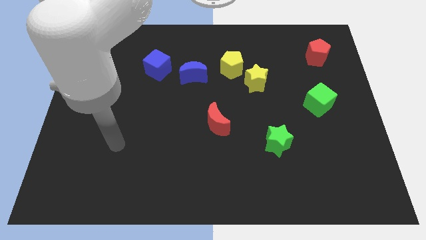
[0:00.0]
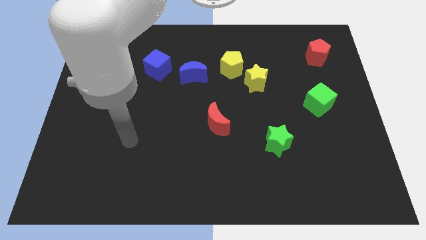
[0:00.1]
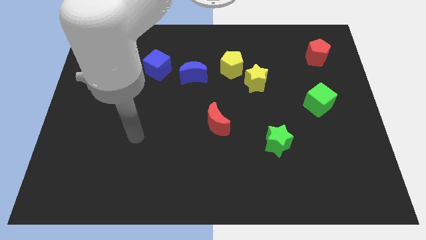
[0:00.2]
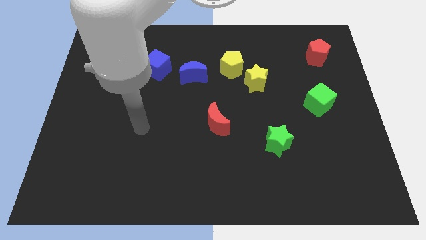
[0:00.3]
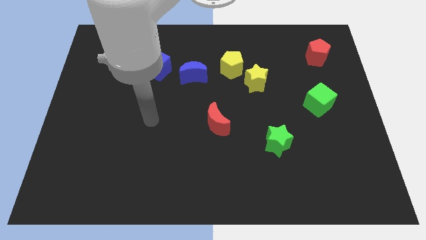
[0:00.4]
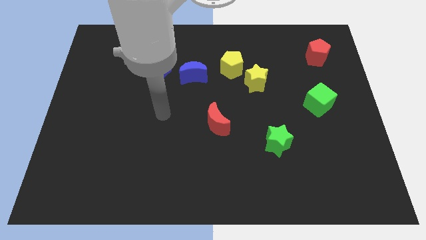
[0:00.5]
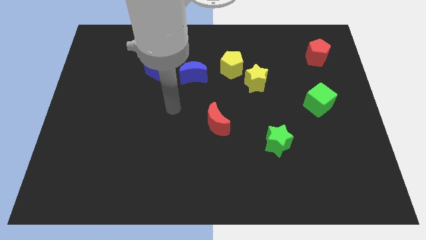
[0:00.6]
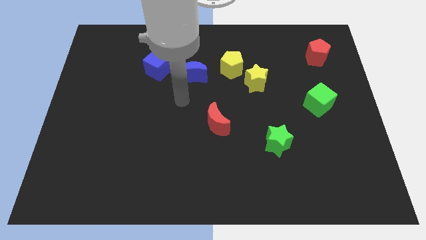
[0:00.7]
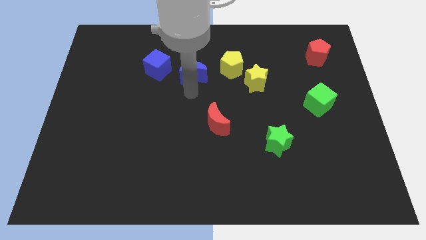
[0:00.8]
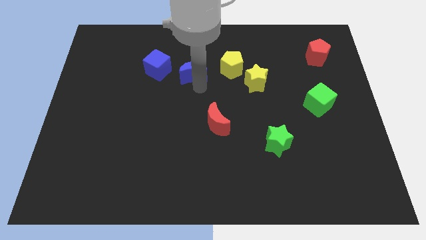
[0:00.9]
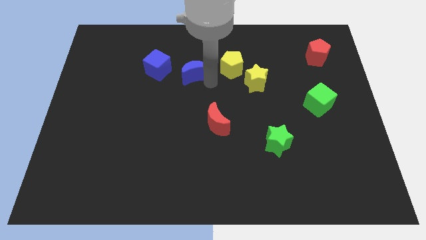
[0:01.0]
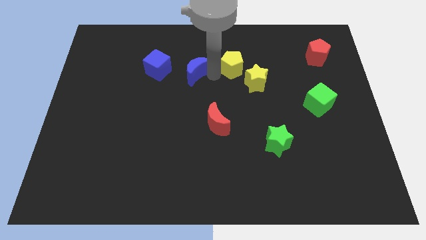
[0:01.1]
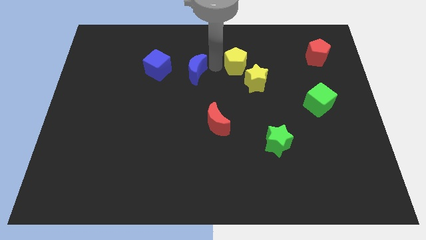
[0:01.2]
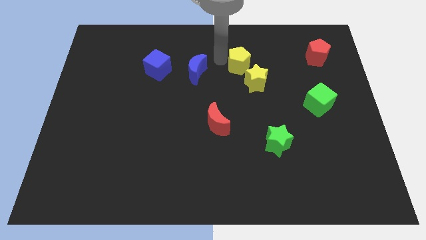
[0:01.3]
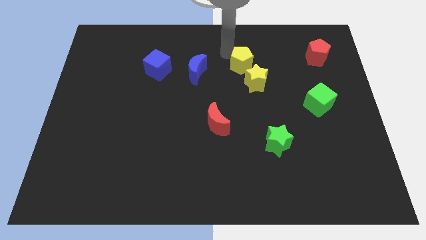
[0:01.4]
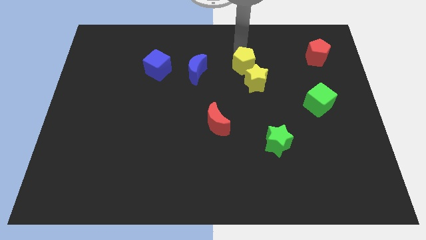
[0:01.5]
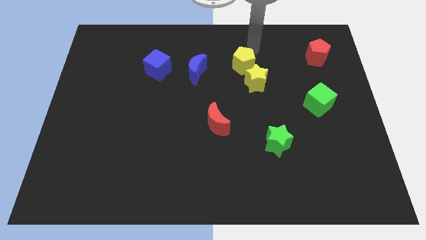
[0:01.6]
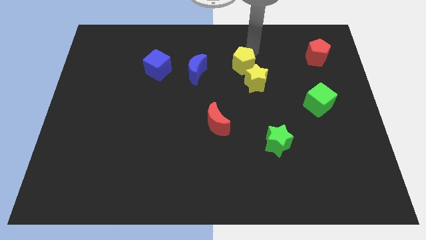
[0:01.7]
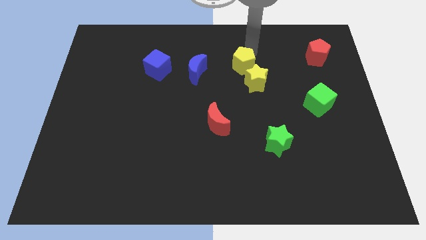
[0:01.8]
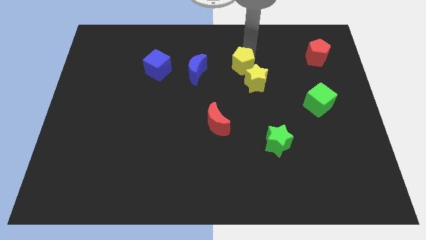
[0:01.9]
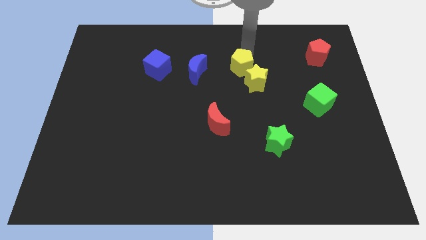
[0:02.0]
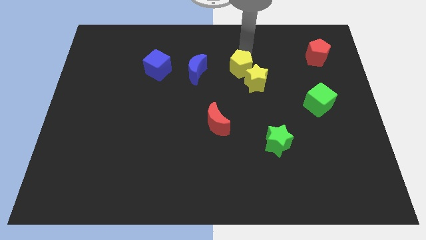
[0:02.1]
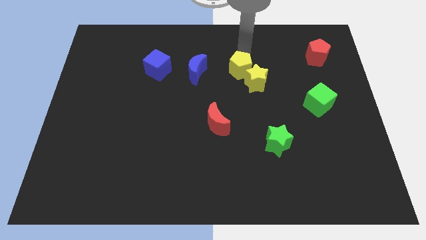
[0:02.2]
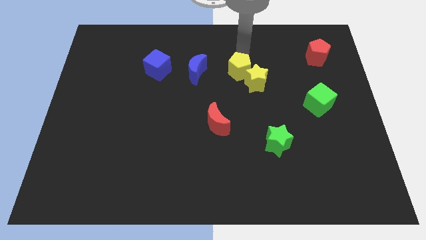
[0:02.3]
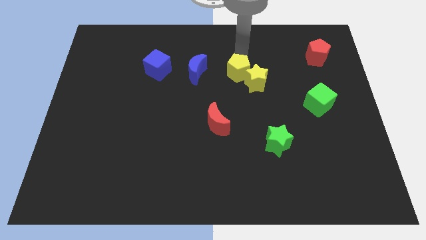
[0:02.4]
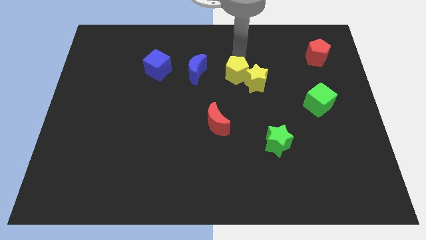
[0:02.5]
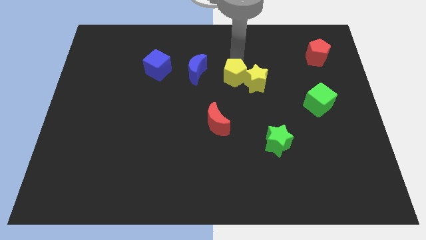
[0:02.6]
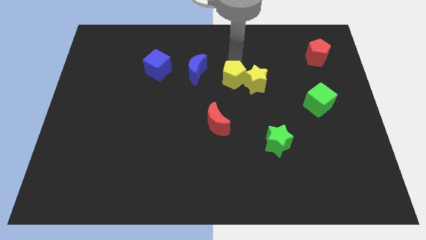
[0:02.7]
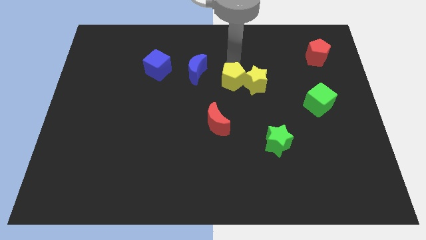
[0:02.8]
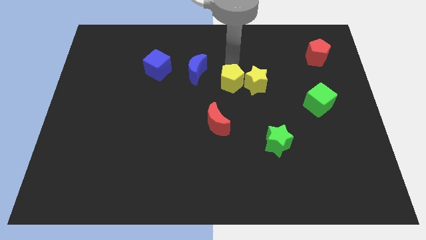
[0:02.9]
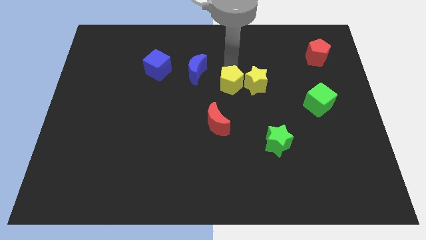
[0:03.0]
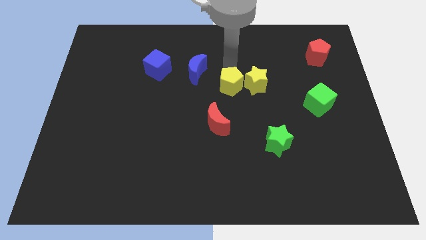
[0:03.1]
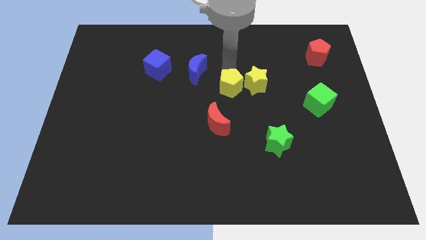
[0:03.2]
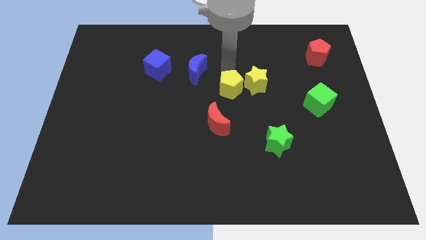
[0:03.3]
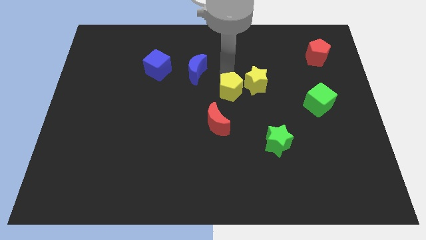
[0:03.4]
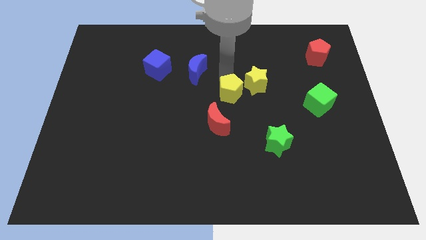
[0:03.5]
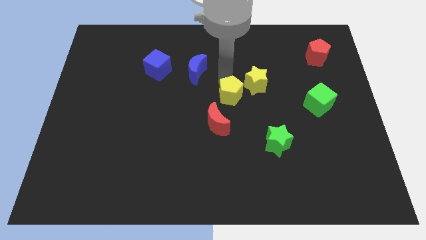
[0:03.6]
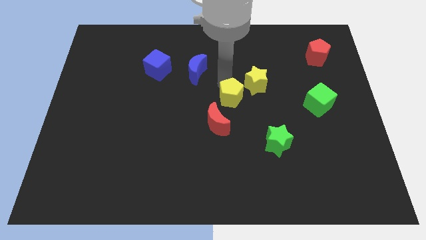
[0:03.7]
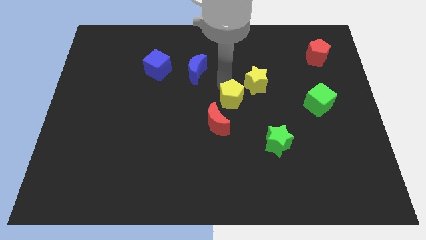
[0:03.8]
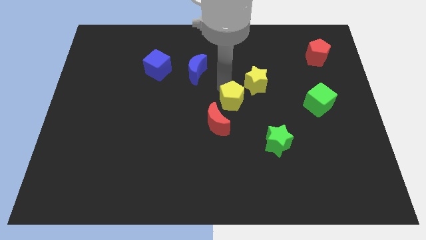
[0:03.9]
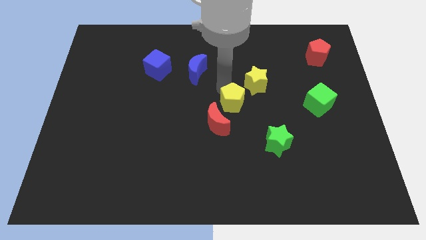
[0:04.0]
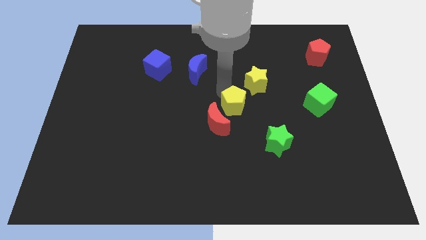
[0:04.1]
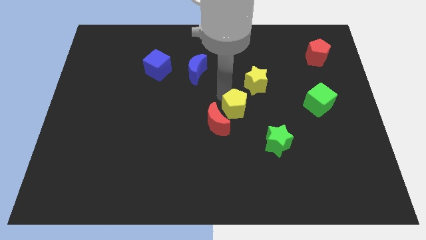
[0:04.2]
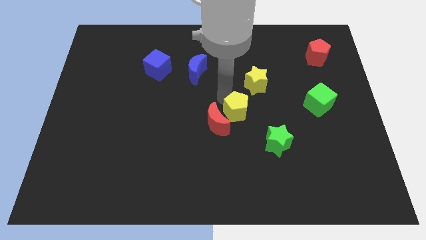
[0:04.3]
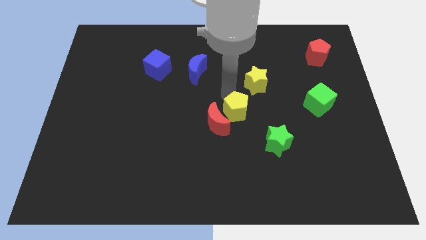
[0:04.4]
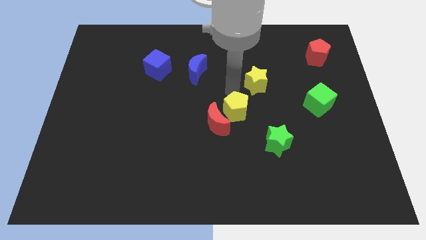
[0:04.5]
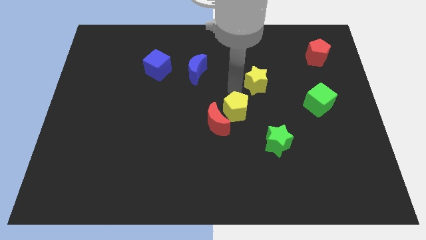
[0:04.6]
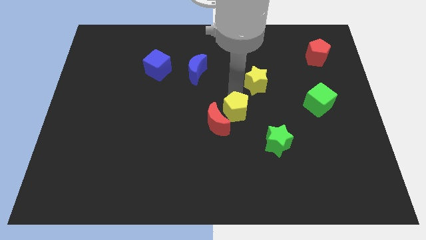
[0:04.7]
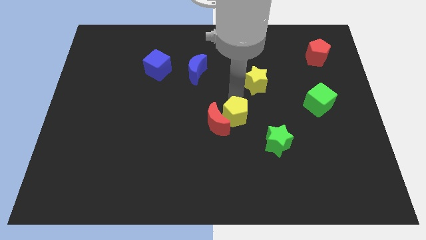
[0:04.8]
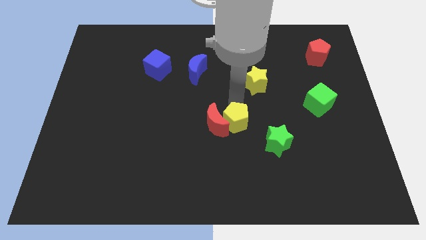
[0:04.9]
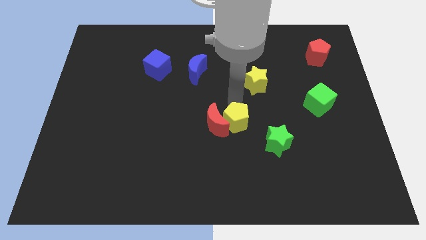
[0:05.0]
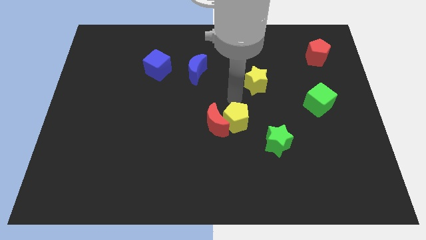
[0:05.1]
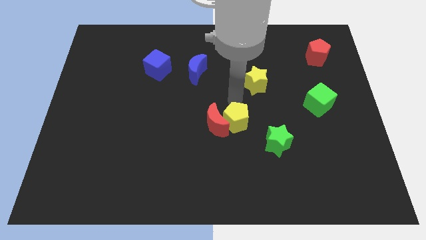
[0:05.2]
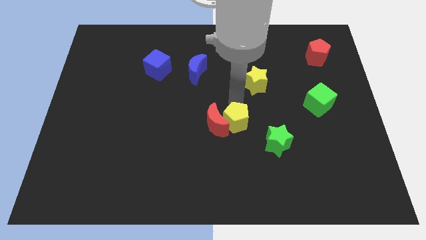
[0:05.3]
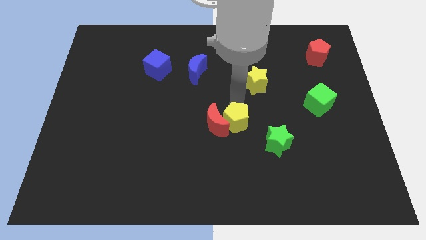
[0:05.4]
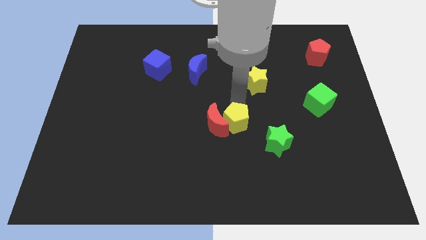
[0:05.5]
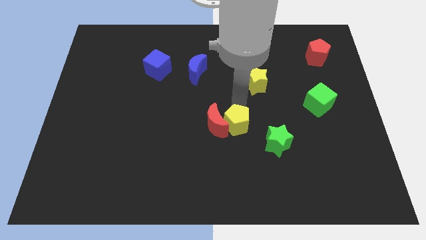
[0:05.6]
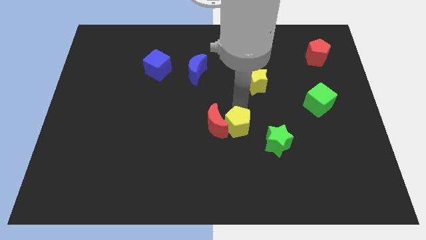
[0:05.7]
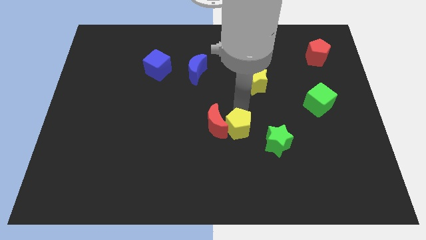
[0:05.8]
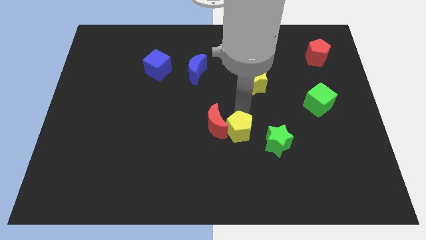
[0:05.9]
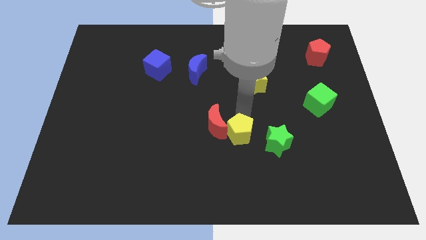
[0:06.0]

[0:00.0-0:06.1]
slide the yellow pentagon downwards

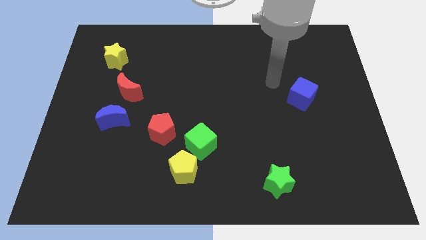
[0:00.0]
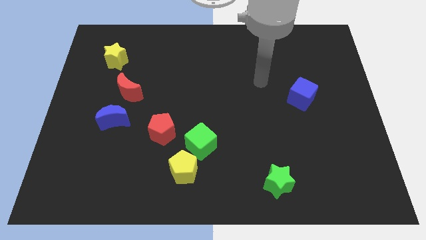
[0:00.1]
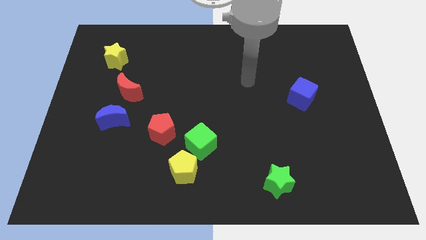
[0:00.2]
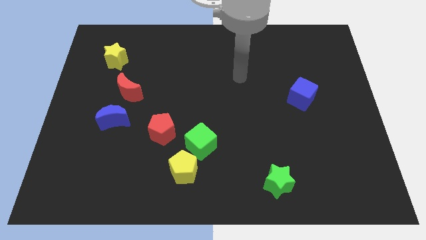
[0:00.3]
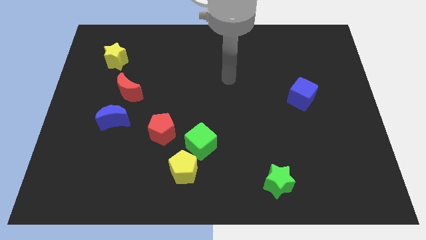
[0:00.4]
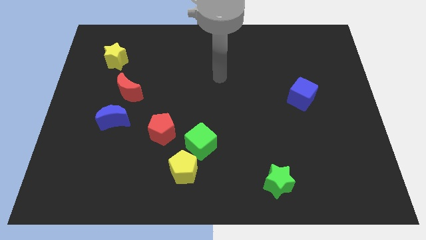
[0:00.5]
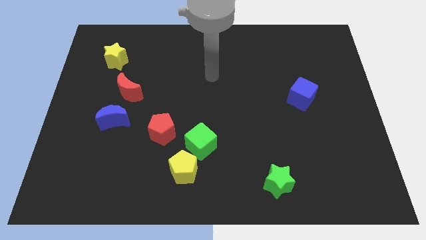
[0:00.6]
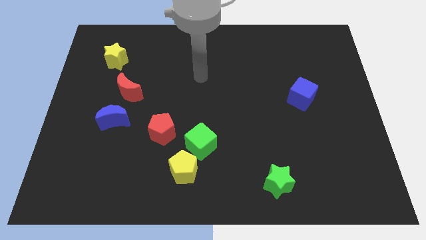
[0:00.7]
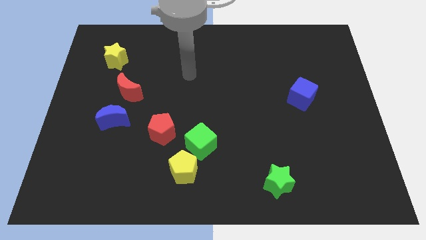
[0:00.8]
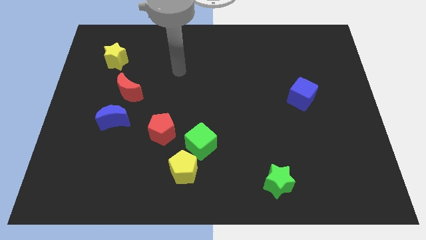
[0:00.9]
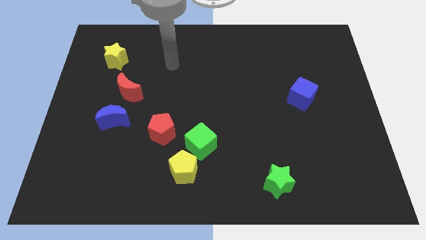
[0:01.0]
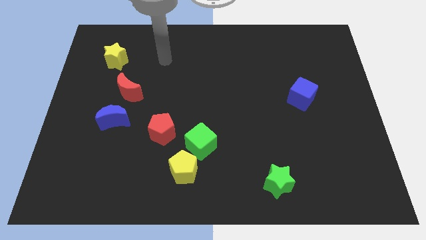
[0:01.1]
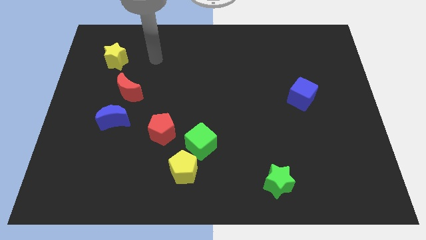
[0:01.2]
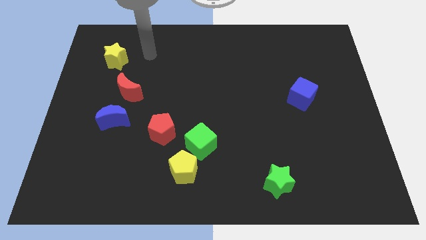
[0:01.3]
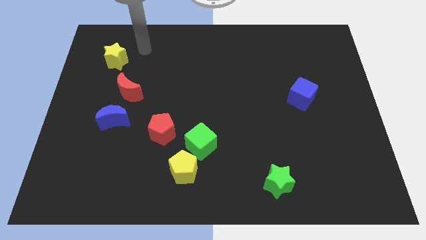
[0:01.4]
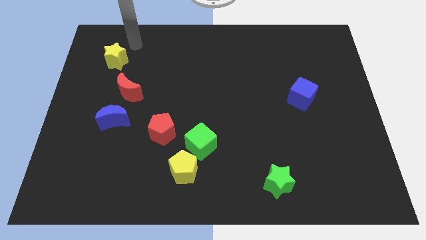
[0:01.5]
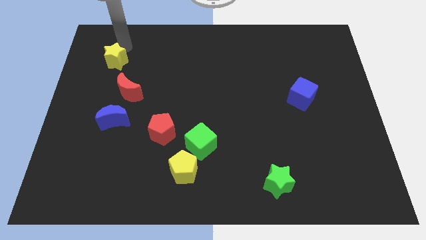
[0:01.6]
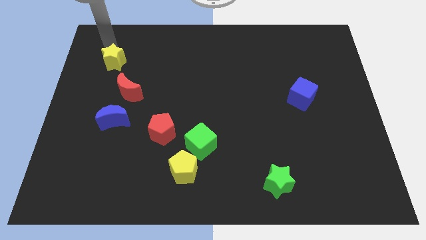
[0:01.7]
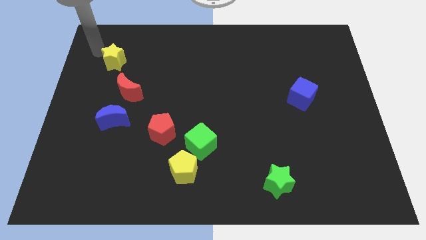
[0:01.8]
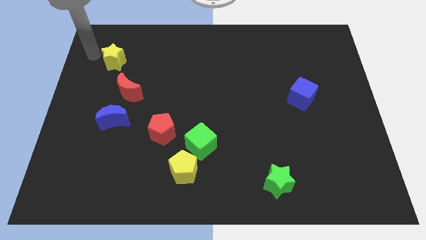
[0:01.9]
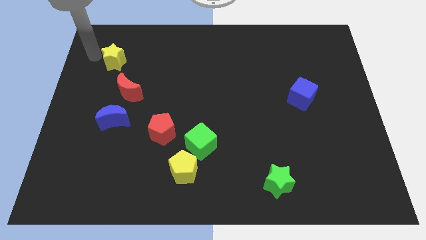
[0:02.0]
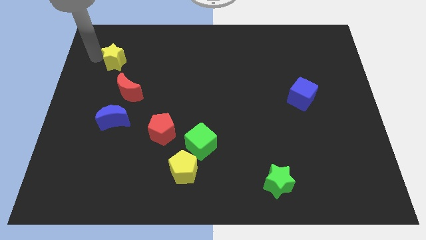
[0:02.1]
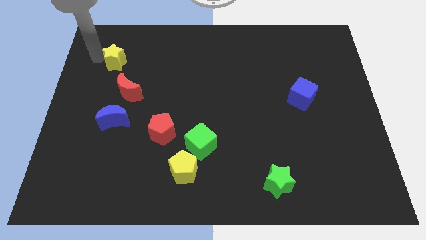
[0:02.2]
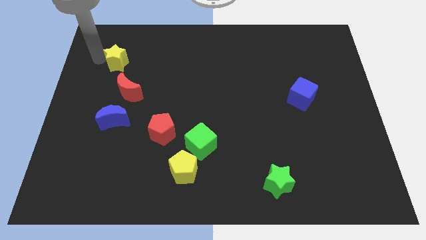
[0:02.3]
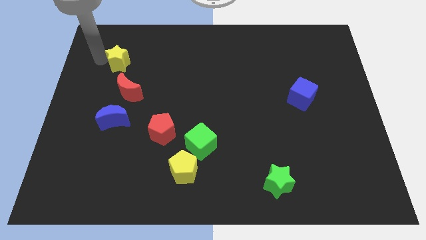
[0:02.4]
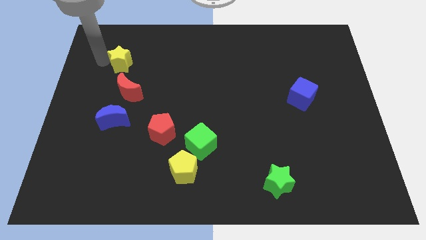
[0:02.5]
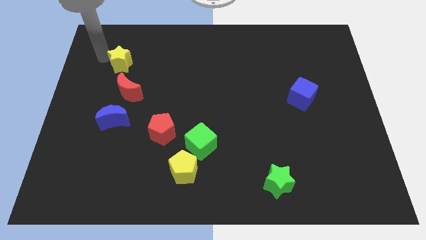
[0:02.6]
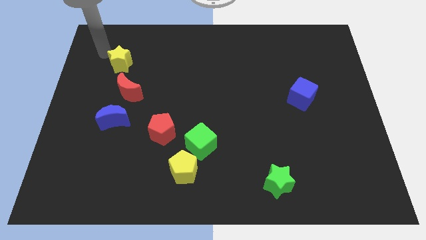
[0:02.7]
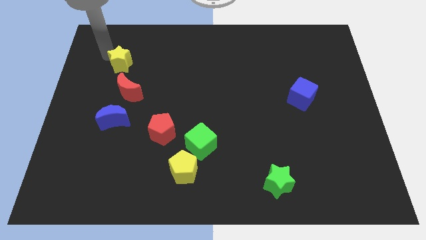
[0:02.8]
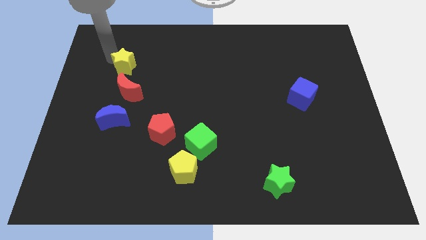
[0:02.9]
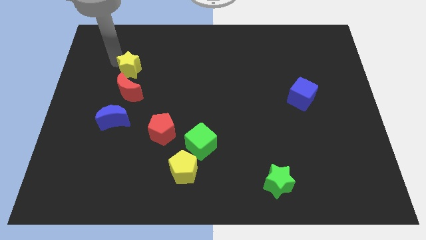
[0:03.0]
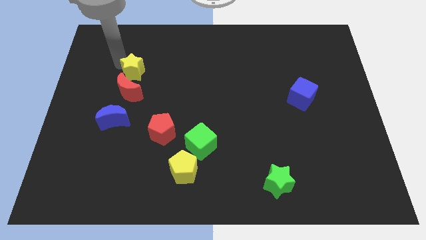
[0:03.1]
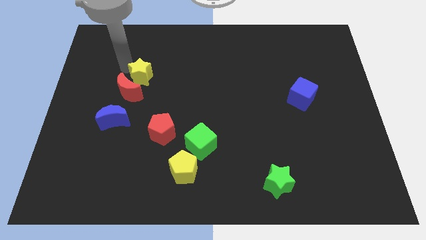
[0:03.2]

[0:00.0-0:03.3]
move the yellow star down and right diagonally somewhat
